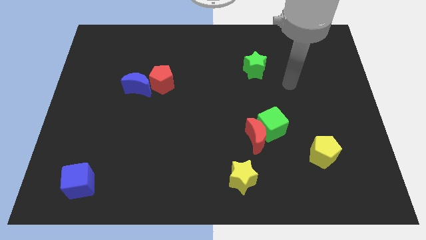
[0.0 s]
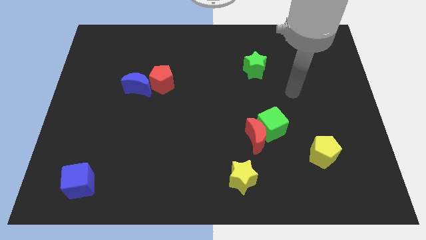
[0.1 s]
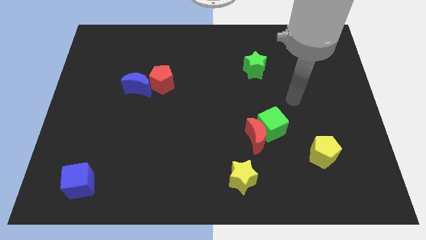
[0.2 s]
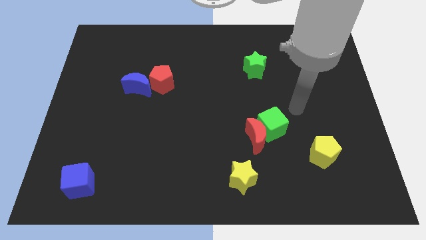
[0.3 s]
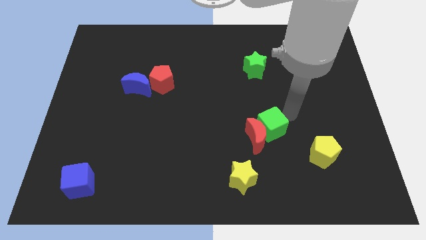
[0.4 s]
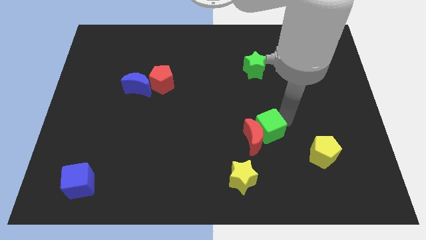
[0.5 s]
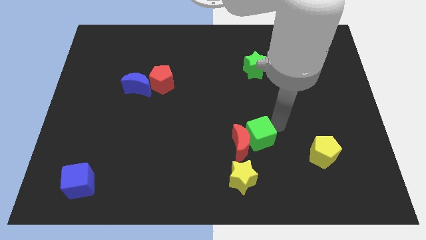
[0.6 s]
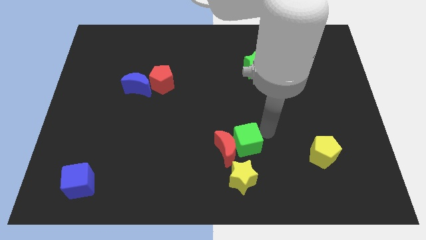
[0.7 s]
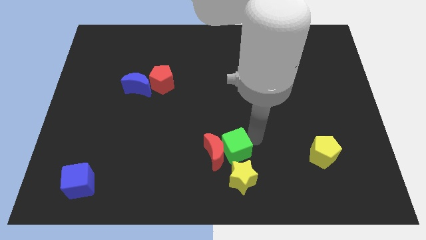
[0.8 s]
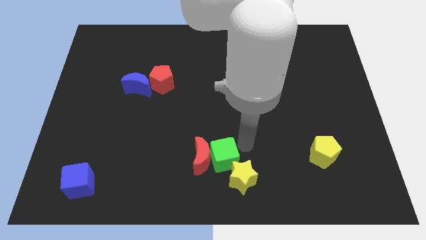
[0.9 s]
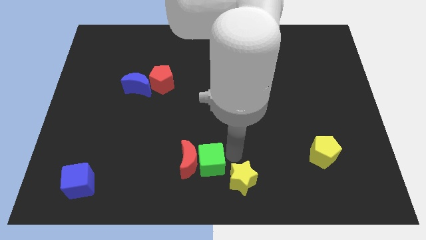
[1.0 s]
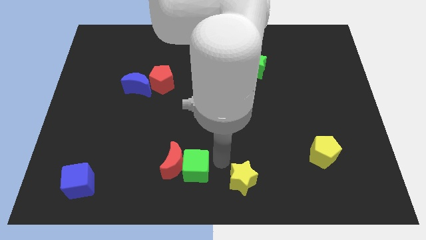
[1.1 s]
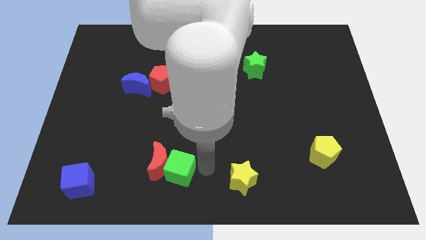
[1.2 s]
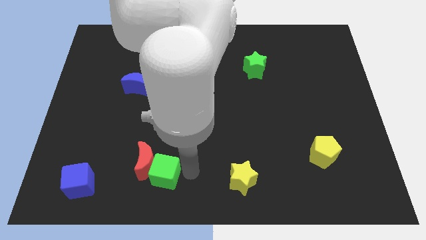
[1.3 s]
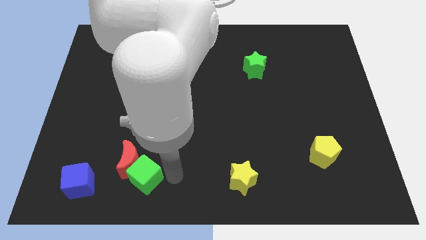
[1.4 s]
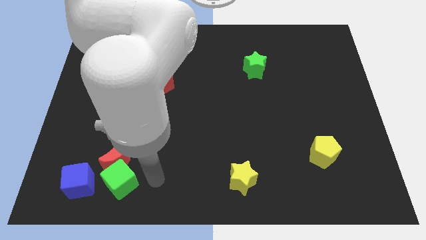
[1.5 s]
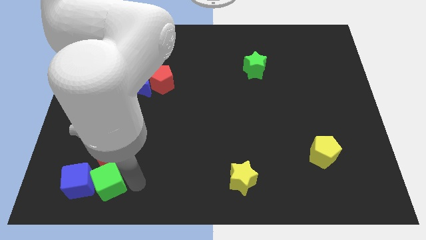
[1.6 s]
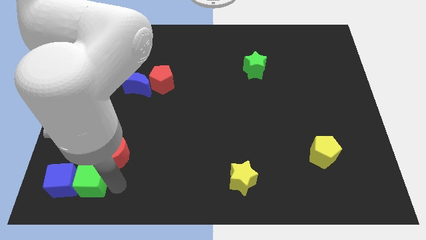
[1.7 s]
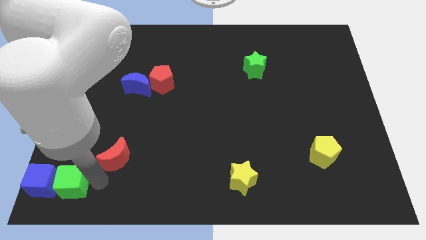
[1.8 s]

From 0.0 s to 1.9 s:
move the red moon away from the green cube

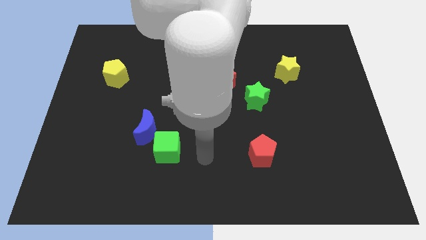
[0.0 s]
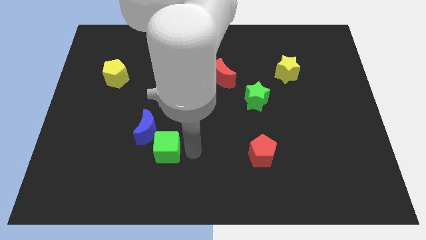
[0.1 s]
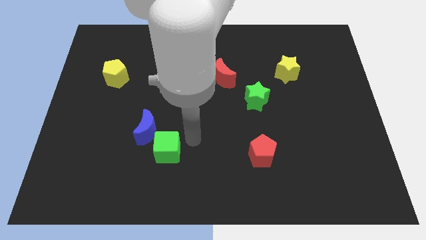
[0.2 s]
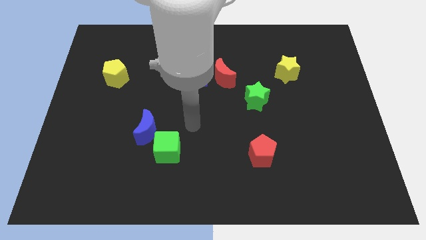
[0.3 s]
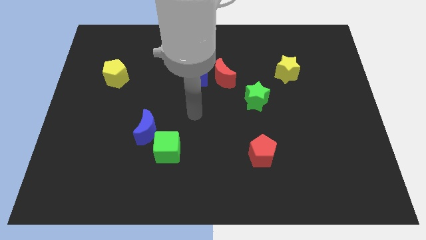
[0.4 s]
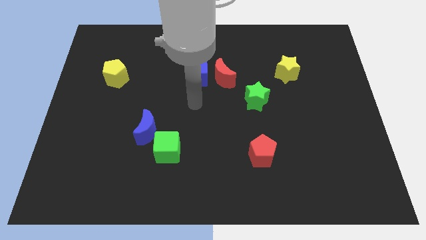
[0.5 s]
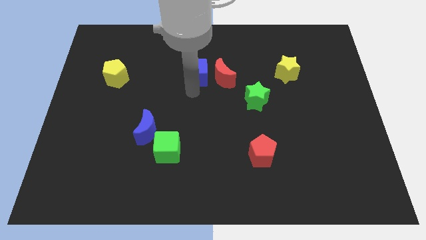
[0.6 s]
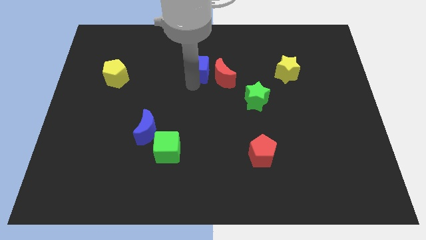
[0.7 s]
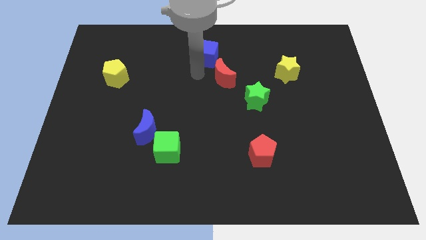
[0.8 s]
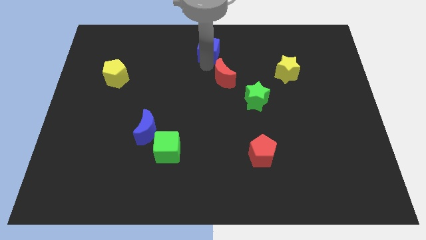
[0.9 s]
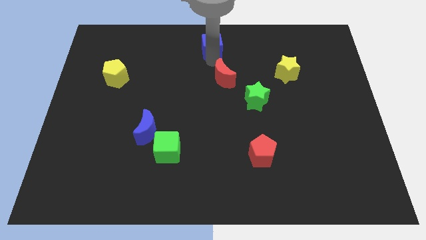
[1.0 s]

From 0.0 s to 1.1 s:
move the red moon away from the blue cube

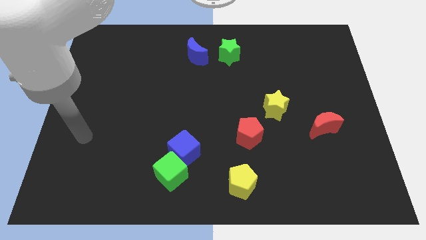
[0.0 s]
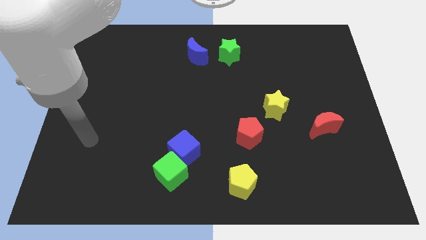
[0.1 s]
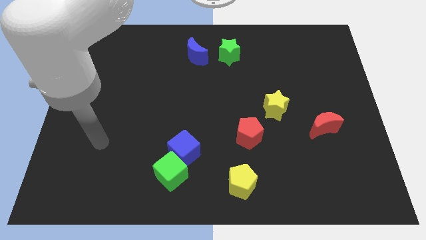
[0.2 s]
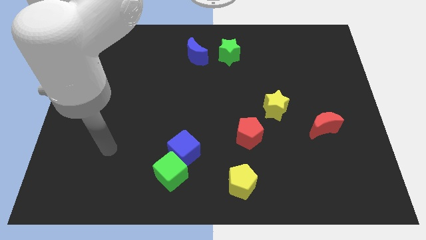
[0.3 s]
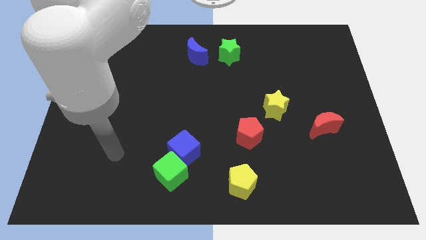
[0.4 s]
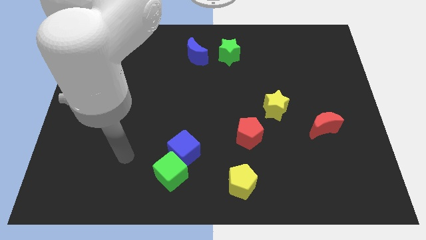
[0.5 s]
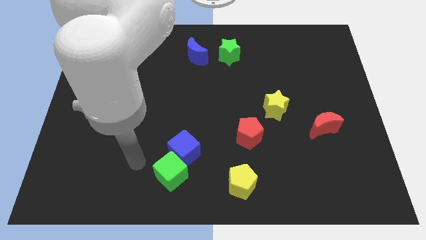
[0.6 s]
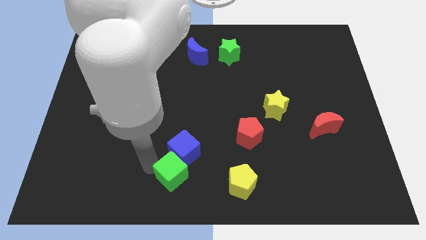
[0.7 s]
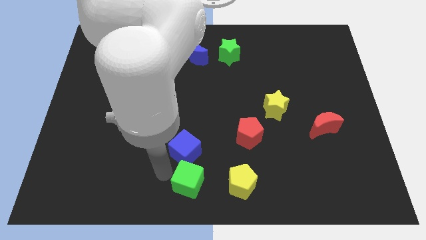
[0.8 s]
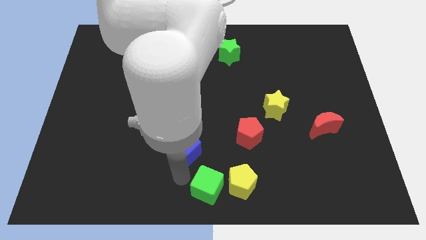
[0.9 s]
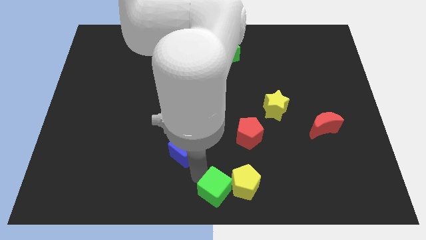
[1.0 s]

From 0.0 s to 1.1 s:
pull the blue cube apart from the green cube

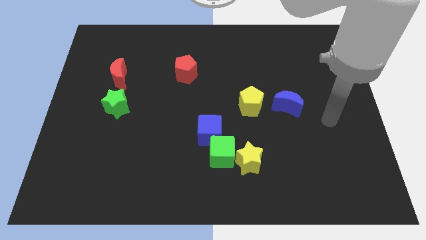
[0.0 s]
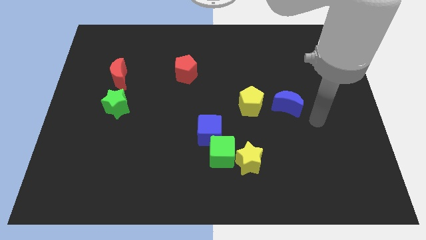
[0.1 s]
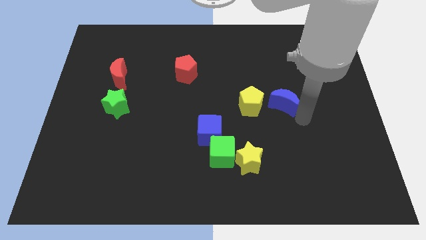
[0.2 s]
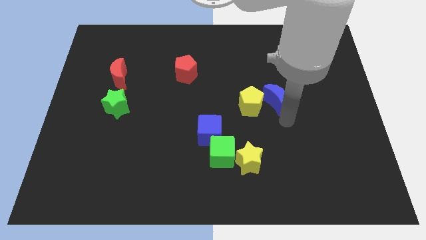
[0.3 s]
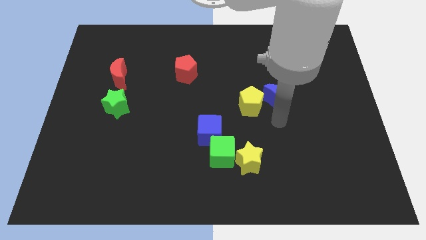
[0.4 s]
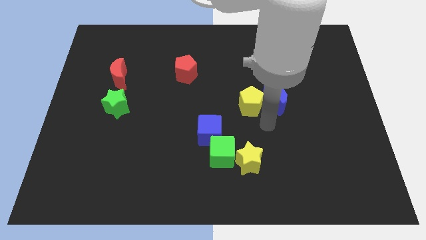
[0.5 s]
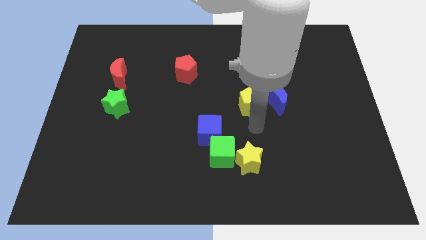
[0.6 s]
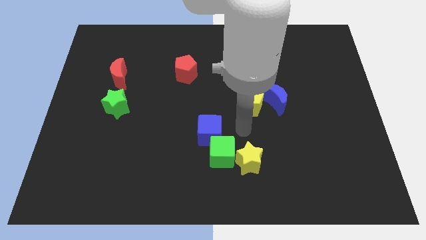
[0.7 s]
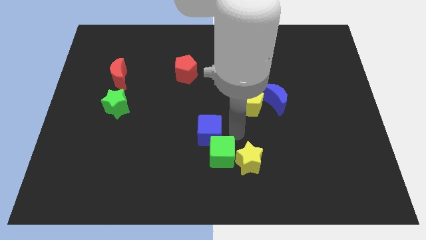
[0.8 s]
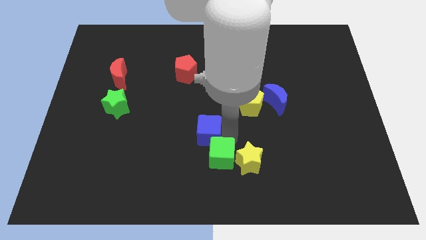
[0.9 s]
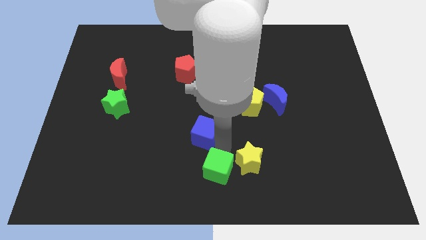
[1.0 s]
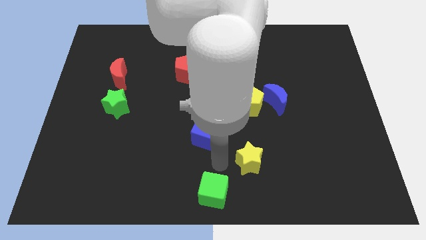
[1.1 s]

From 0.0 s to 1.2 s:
pull the yellow star apart from the green cube

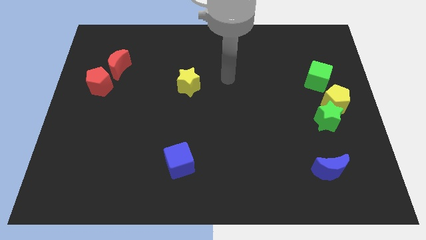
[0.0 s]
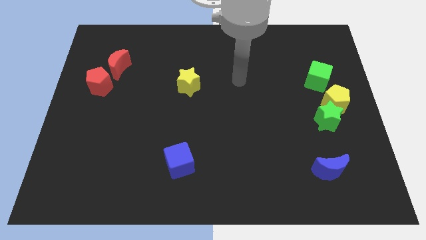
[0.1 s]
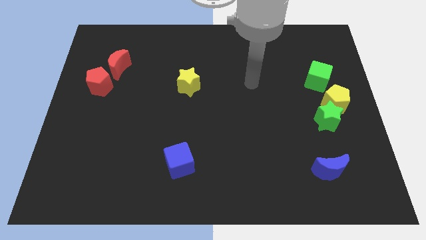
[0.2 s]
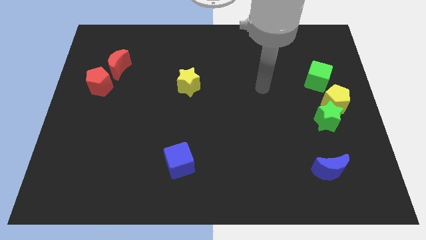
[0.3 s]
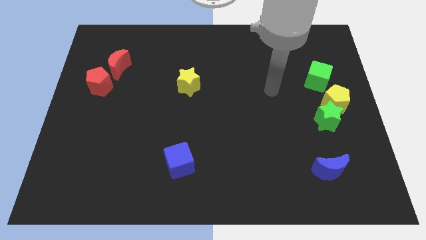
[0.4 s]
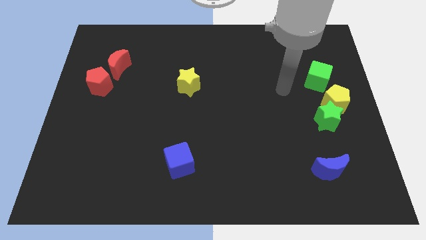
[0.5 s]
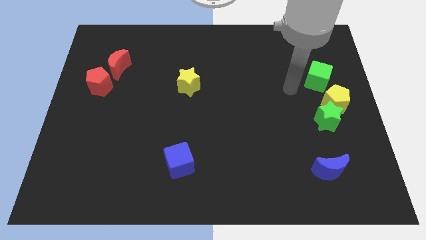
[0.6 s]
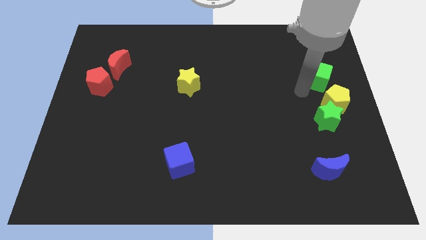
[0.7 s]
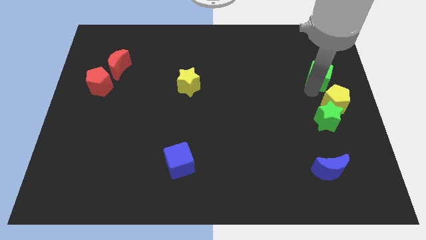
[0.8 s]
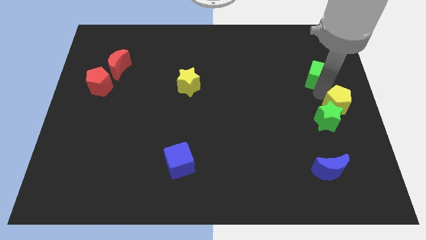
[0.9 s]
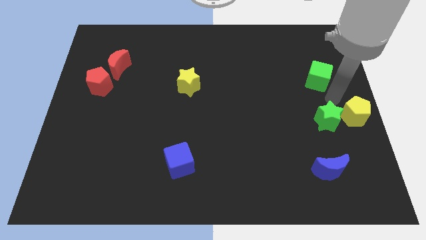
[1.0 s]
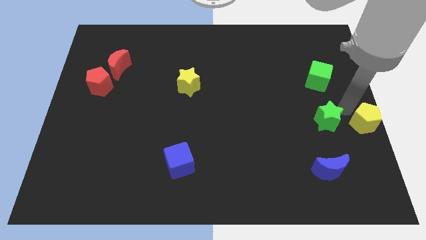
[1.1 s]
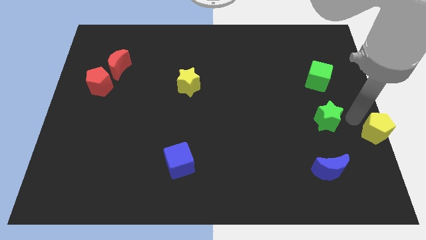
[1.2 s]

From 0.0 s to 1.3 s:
separate the green star from the yellow pentagon

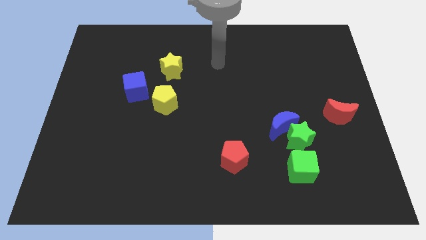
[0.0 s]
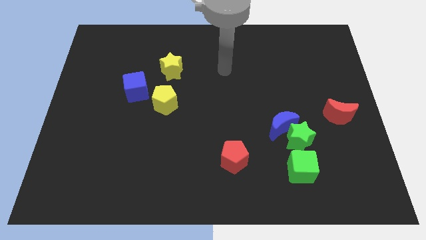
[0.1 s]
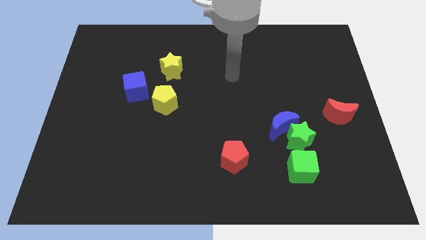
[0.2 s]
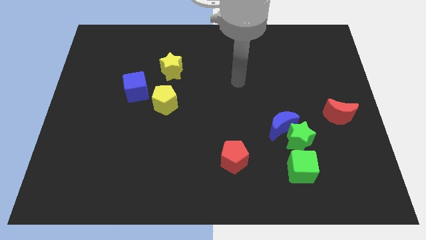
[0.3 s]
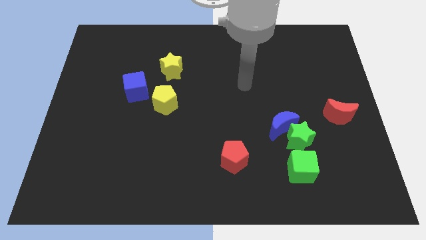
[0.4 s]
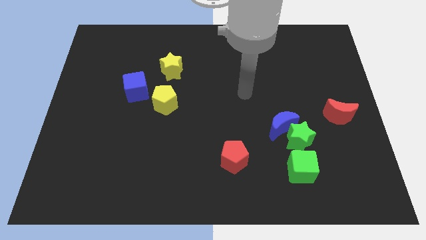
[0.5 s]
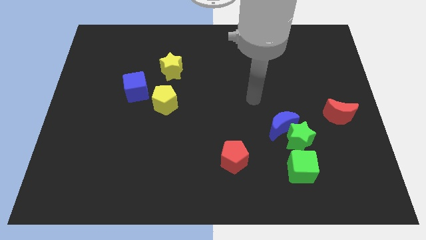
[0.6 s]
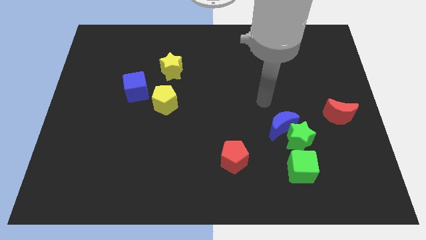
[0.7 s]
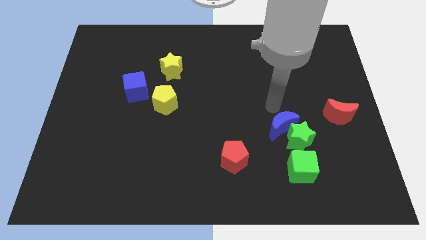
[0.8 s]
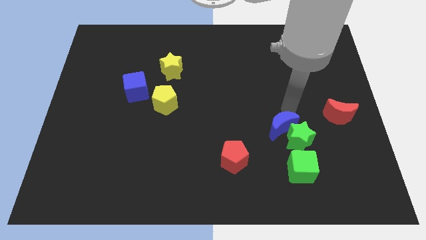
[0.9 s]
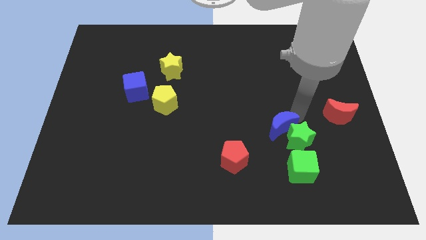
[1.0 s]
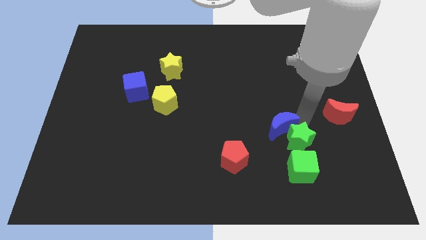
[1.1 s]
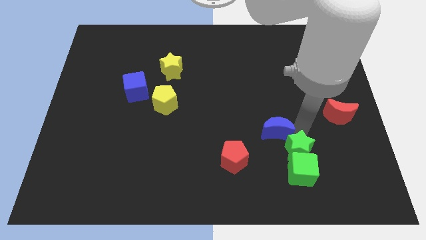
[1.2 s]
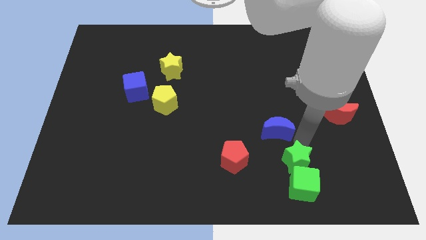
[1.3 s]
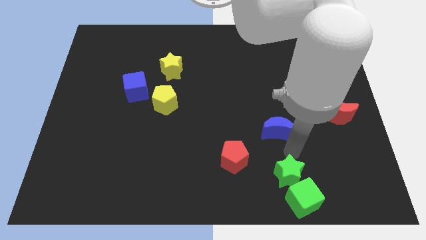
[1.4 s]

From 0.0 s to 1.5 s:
move the blue moon away from the green star

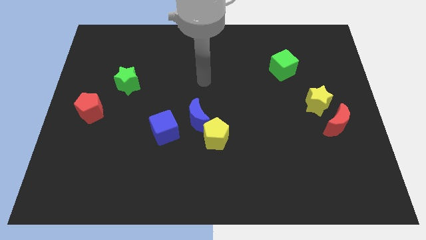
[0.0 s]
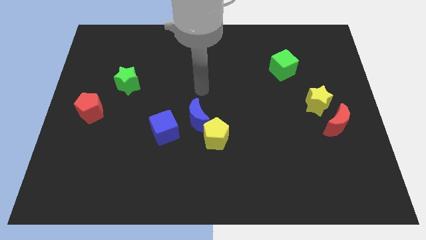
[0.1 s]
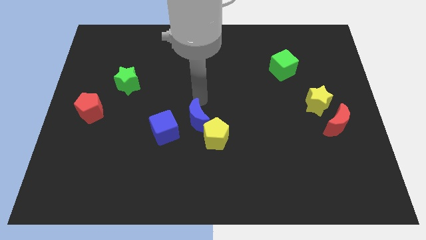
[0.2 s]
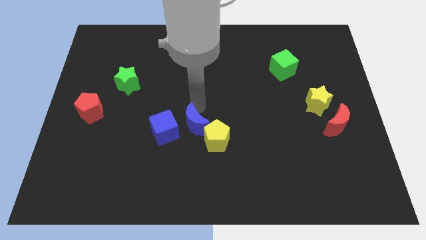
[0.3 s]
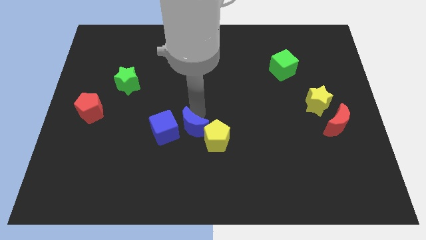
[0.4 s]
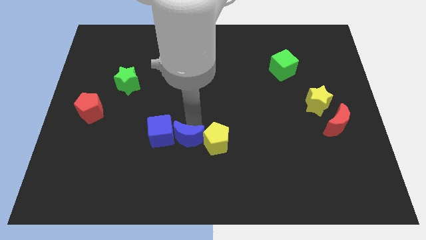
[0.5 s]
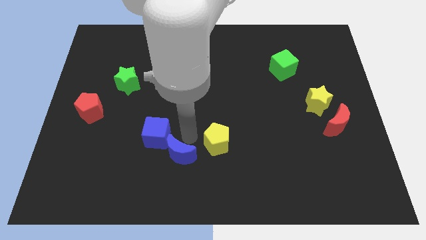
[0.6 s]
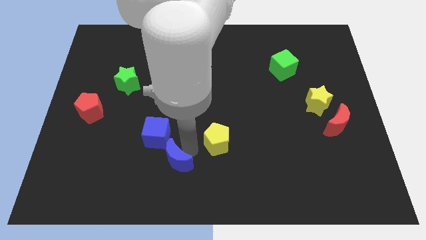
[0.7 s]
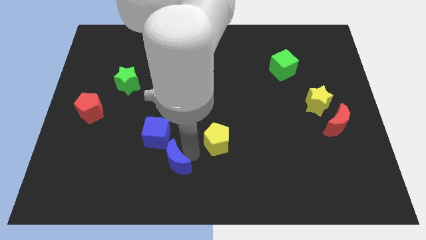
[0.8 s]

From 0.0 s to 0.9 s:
move the yellow pentagon away from the blue moon

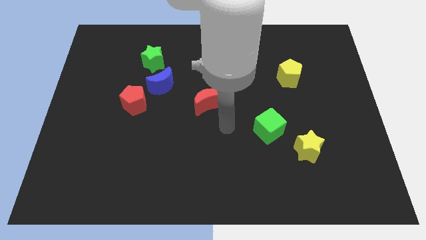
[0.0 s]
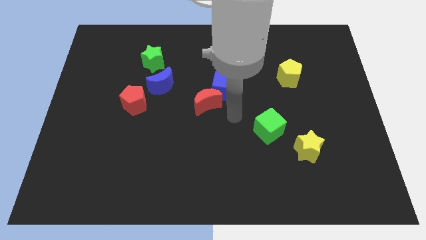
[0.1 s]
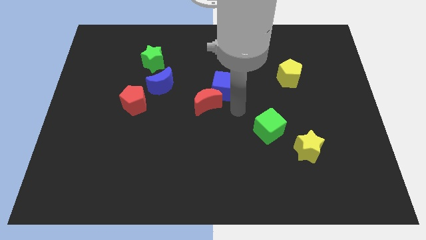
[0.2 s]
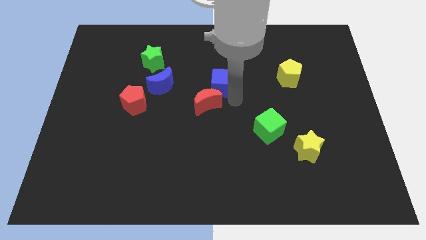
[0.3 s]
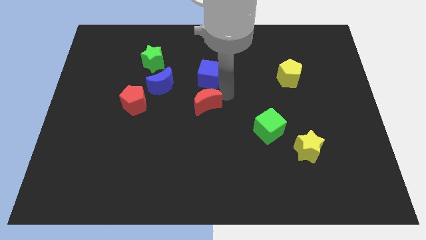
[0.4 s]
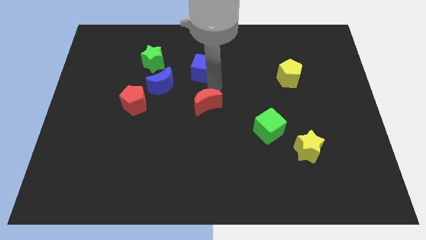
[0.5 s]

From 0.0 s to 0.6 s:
pull the red moon apart from the blue cube
